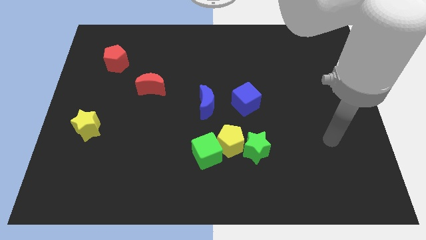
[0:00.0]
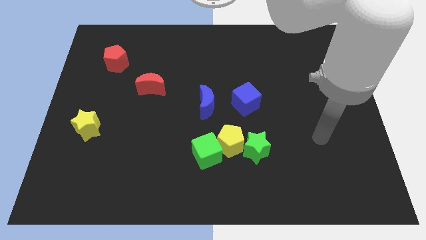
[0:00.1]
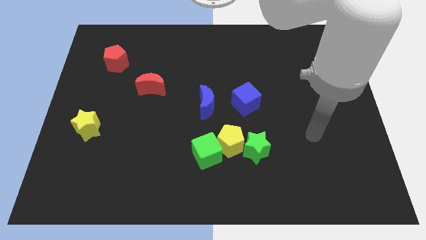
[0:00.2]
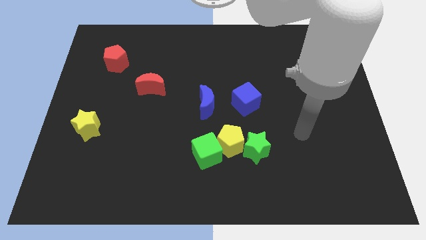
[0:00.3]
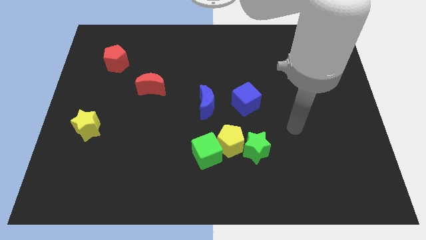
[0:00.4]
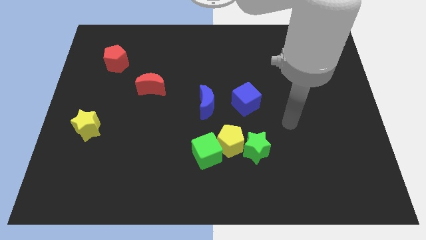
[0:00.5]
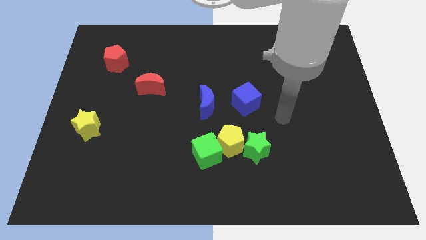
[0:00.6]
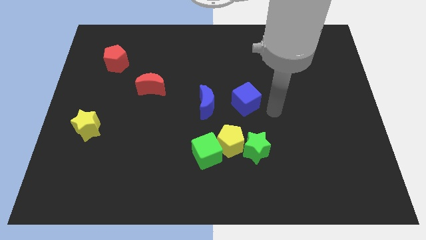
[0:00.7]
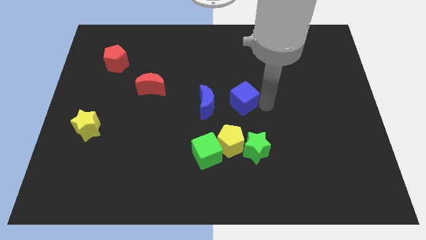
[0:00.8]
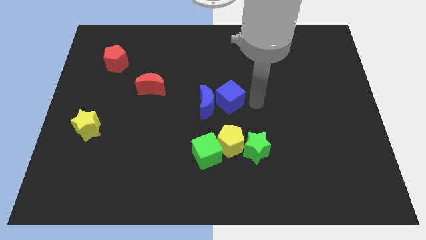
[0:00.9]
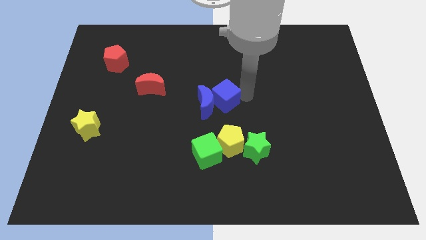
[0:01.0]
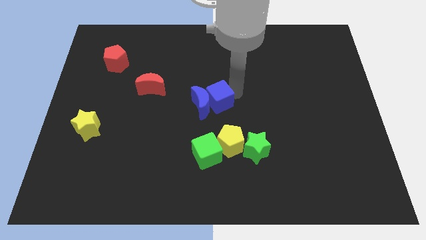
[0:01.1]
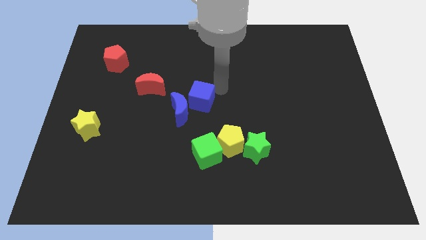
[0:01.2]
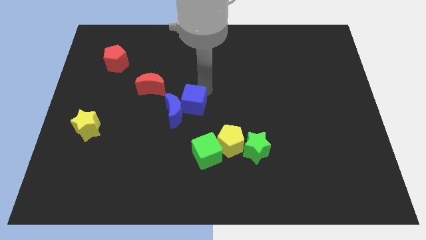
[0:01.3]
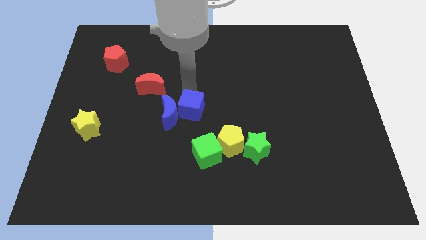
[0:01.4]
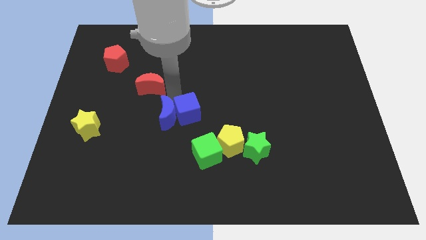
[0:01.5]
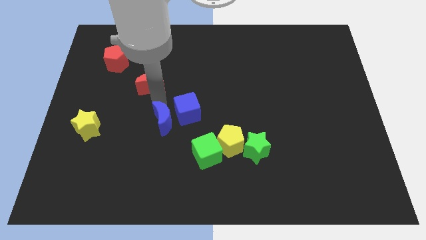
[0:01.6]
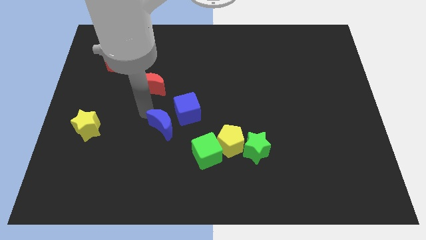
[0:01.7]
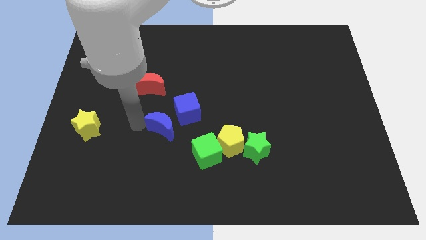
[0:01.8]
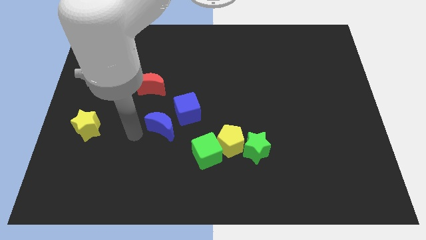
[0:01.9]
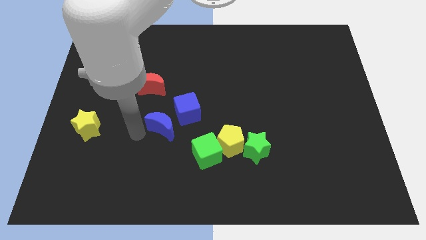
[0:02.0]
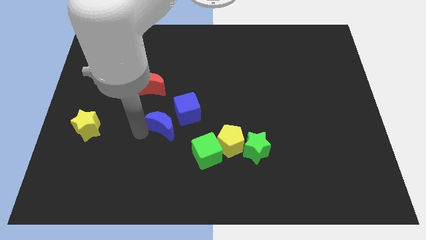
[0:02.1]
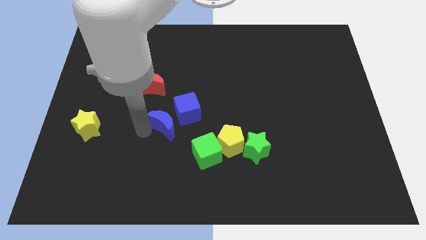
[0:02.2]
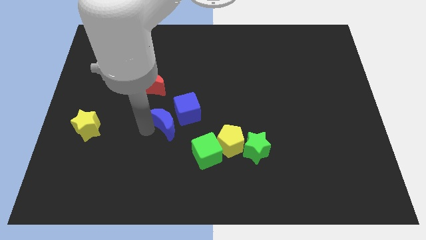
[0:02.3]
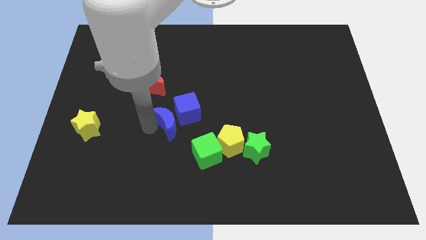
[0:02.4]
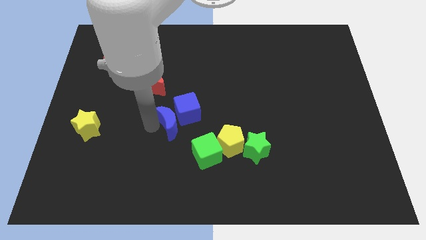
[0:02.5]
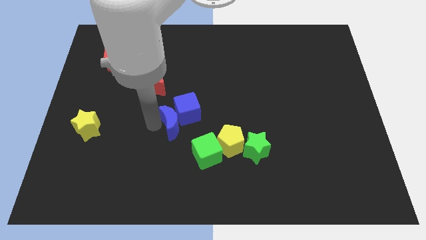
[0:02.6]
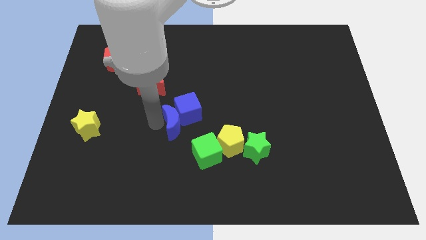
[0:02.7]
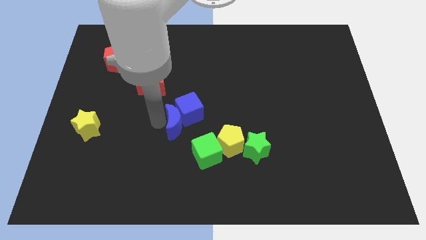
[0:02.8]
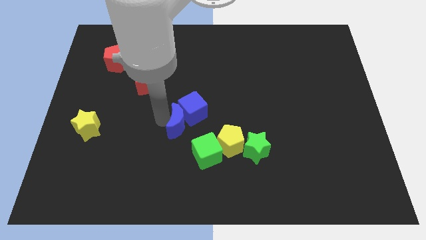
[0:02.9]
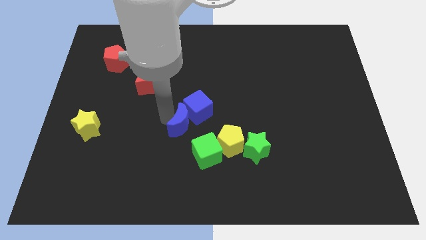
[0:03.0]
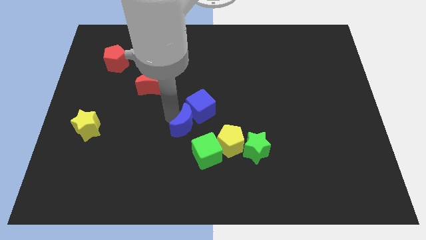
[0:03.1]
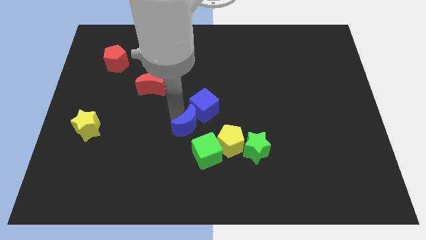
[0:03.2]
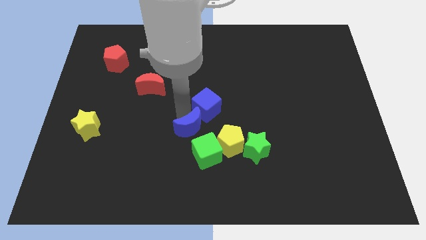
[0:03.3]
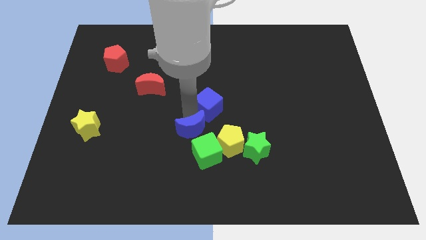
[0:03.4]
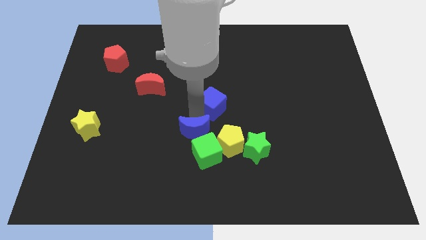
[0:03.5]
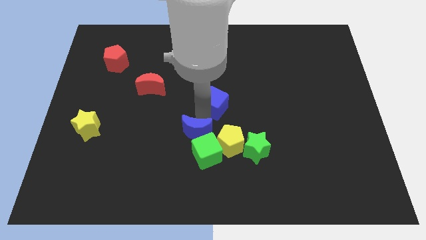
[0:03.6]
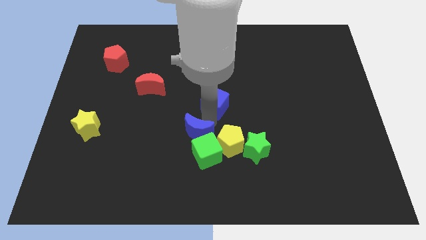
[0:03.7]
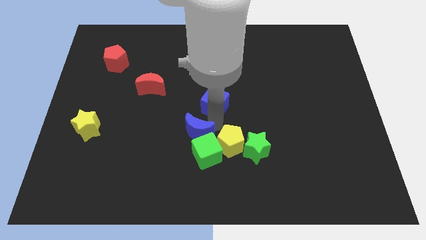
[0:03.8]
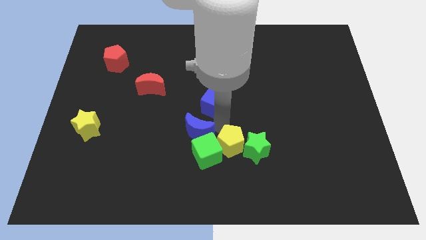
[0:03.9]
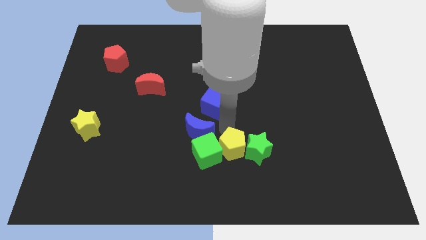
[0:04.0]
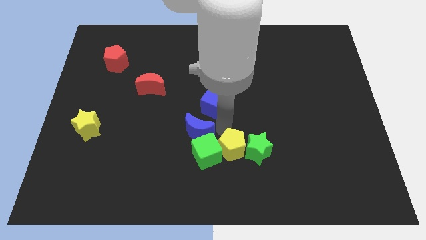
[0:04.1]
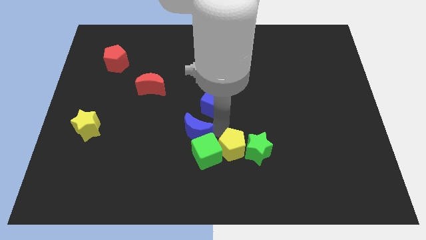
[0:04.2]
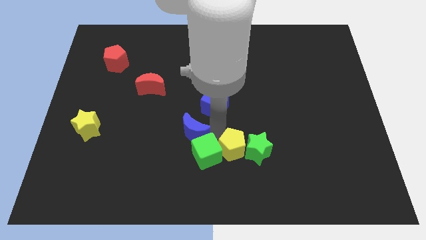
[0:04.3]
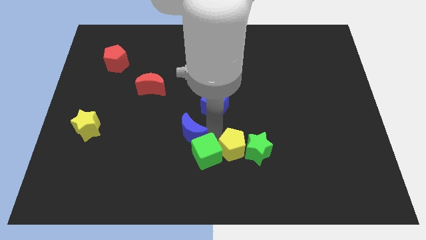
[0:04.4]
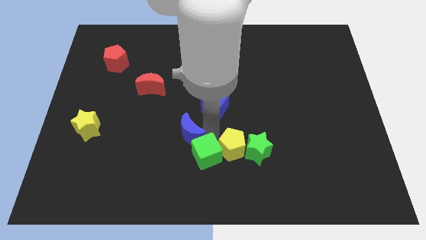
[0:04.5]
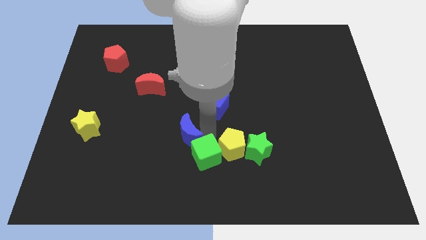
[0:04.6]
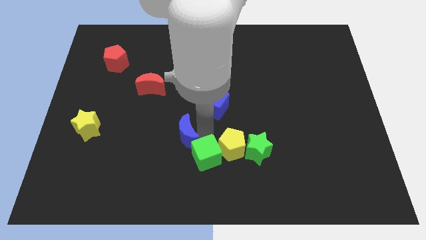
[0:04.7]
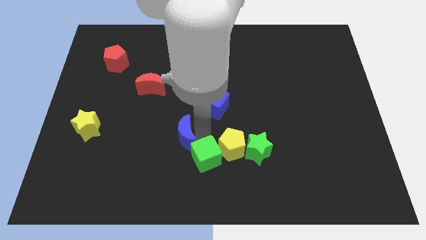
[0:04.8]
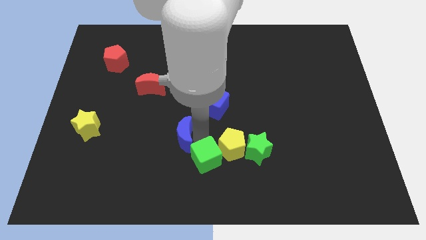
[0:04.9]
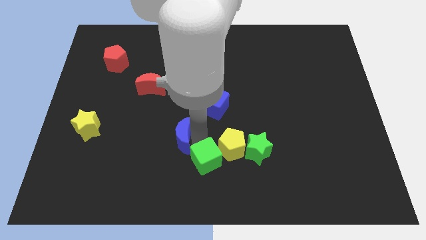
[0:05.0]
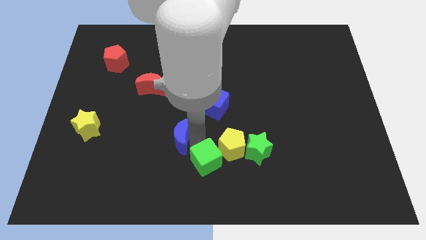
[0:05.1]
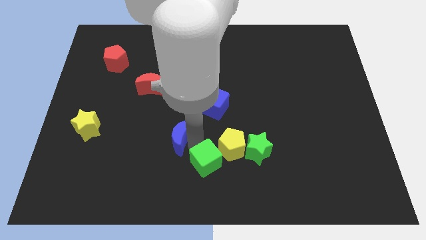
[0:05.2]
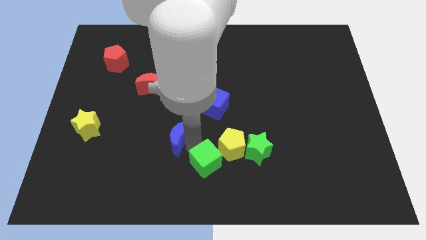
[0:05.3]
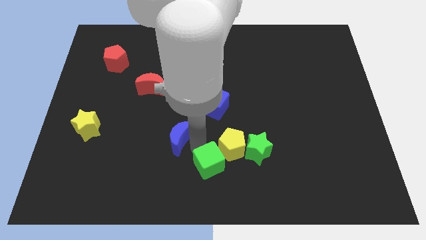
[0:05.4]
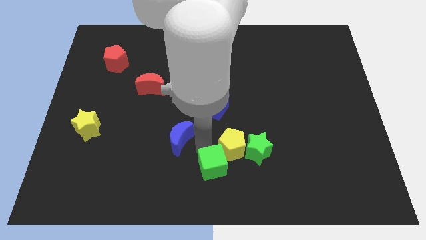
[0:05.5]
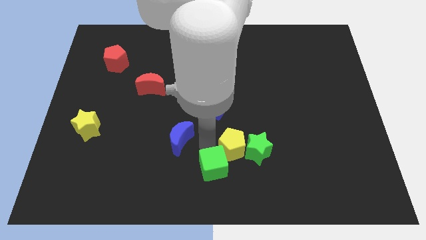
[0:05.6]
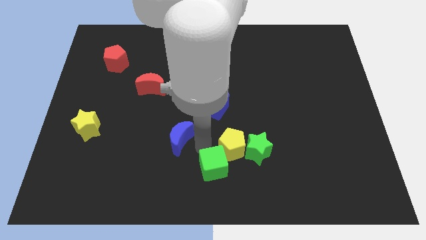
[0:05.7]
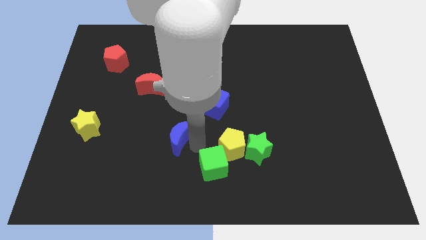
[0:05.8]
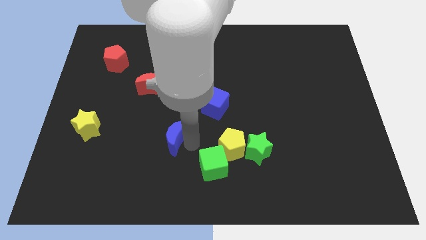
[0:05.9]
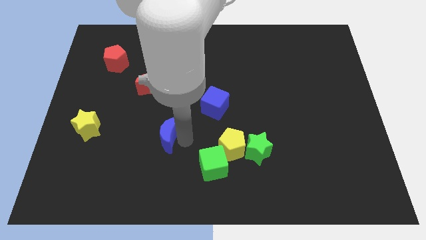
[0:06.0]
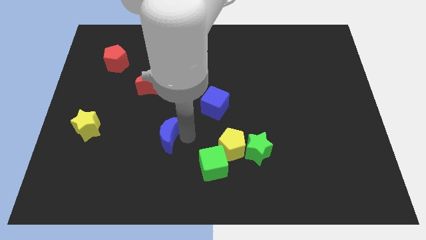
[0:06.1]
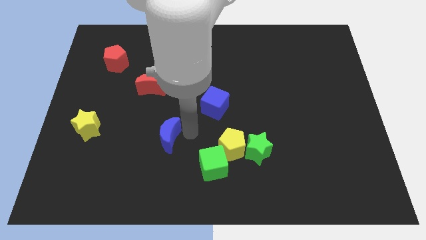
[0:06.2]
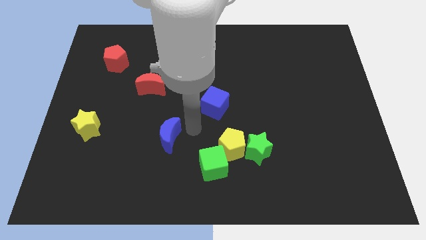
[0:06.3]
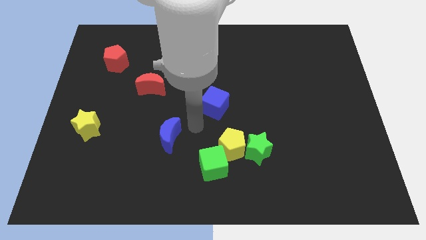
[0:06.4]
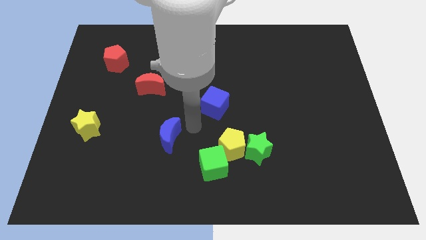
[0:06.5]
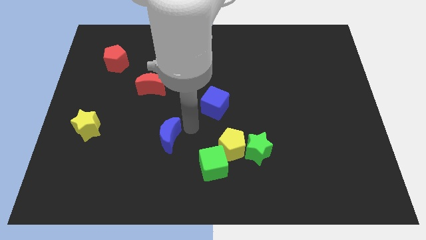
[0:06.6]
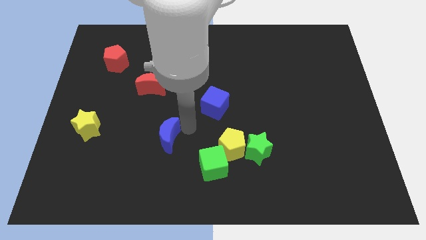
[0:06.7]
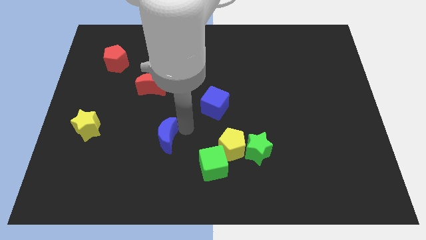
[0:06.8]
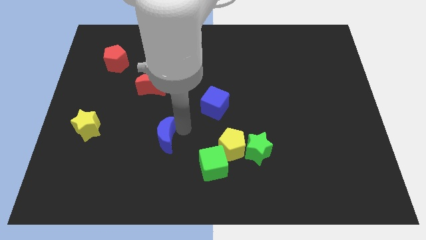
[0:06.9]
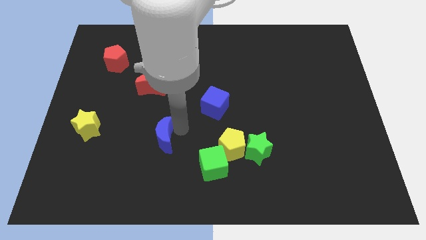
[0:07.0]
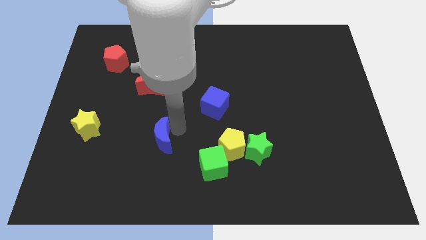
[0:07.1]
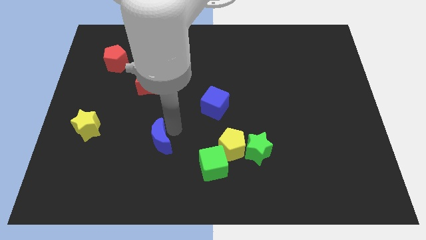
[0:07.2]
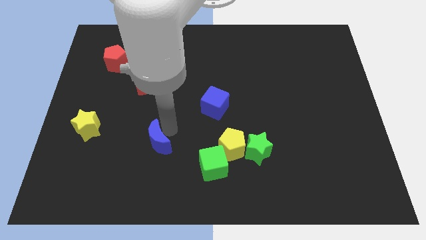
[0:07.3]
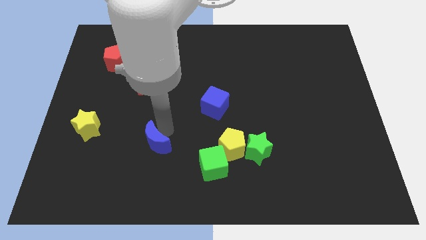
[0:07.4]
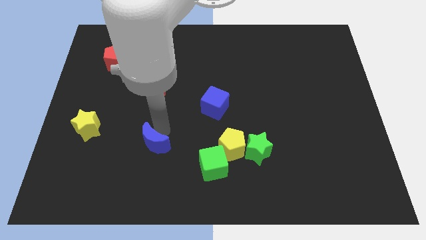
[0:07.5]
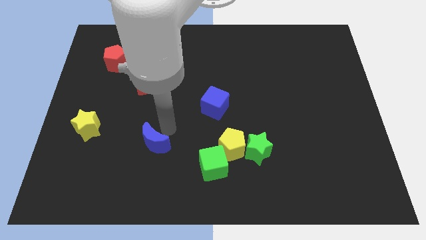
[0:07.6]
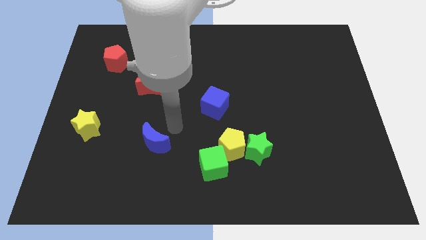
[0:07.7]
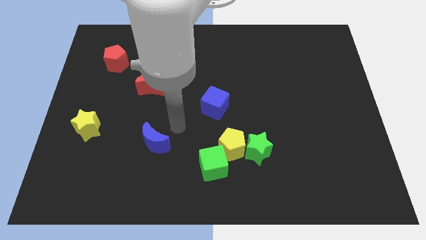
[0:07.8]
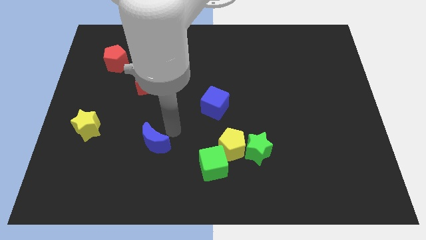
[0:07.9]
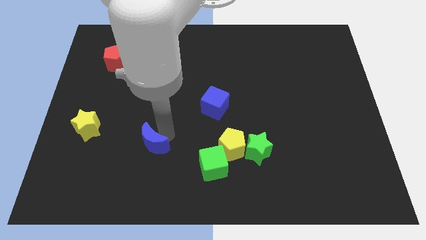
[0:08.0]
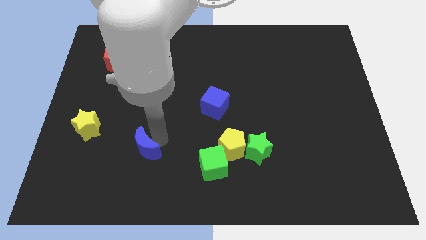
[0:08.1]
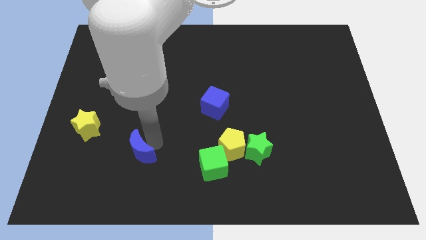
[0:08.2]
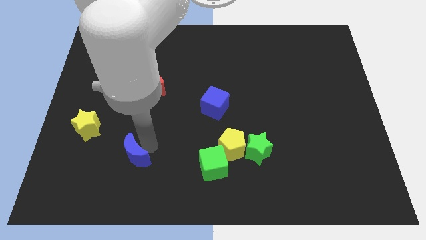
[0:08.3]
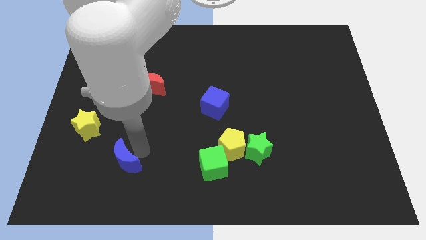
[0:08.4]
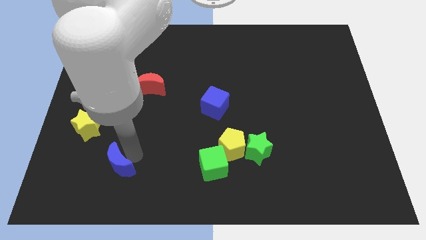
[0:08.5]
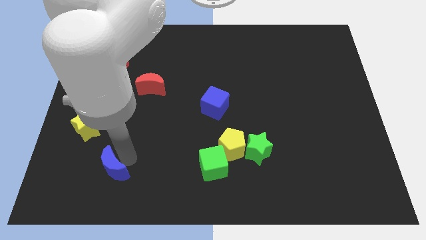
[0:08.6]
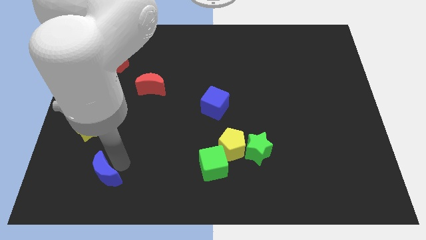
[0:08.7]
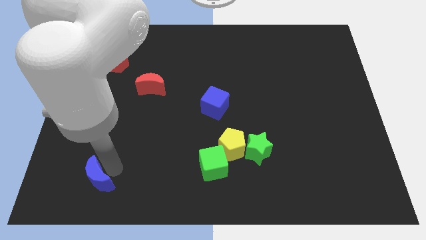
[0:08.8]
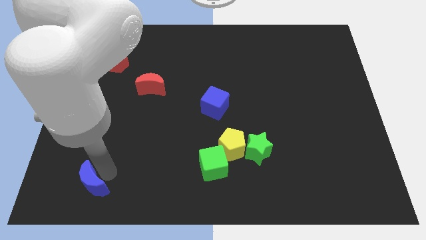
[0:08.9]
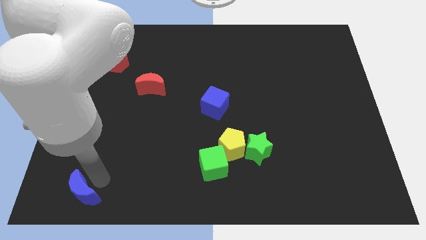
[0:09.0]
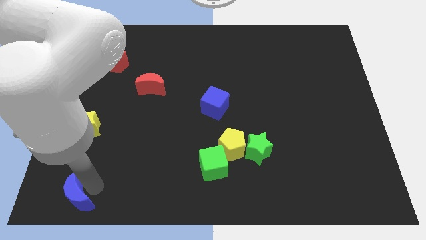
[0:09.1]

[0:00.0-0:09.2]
slide the blue moon to the bottom left of the board
